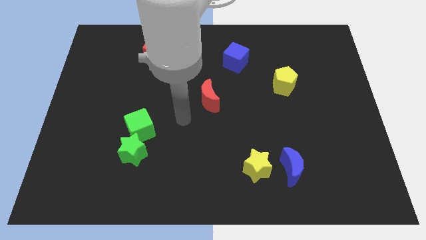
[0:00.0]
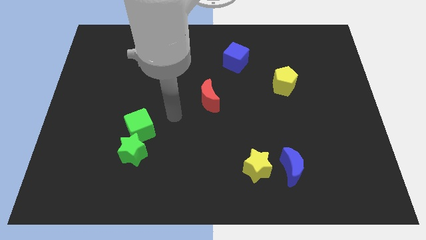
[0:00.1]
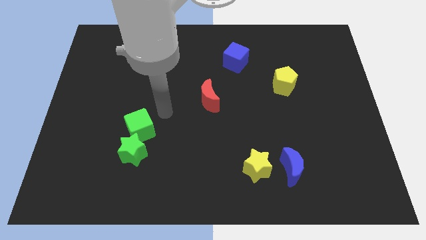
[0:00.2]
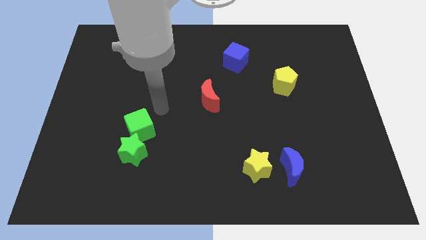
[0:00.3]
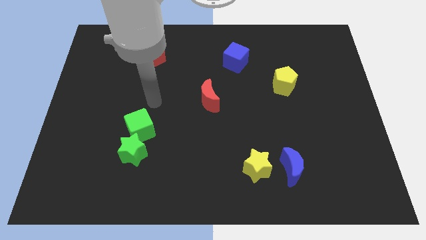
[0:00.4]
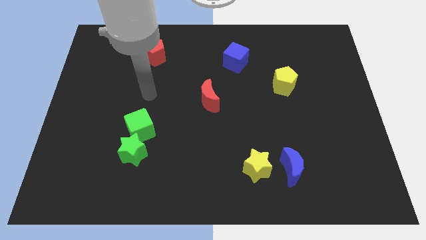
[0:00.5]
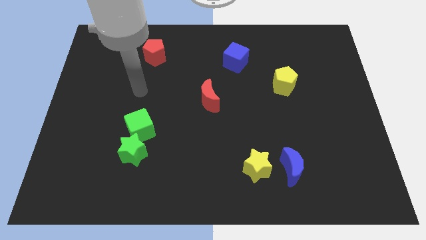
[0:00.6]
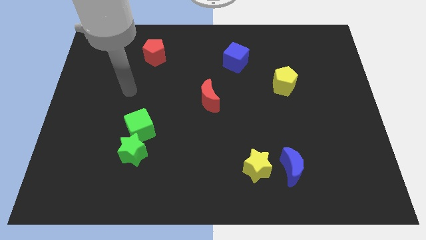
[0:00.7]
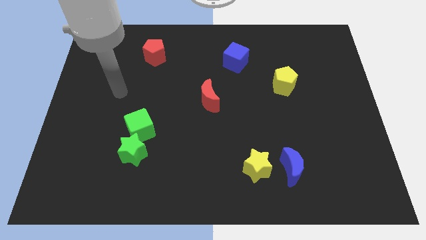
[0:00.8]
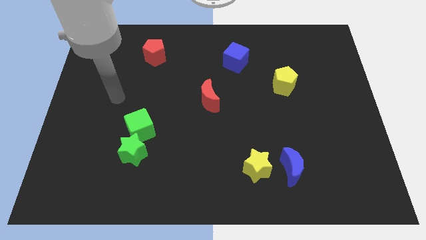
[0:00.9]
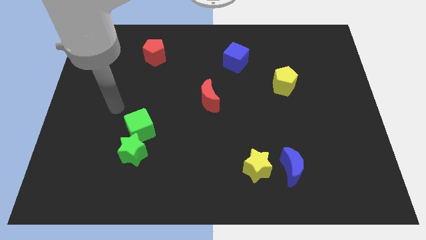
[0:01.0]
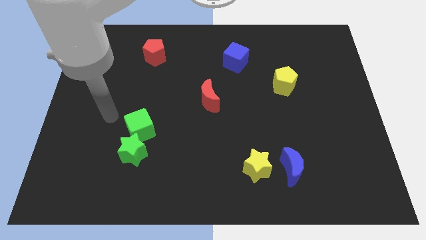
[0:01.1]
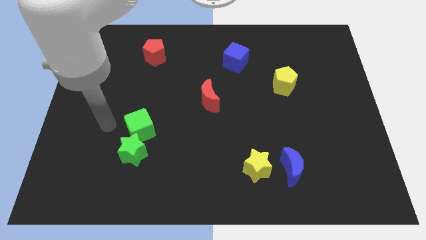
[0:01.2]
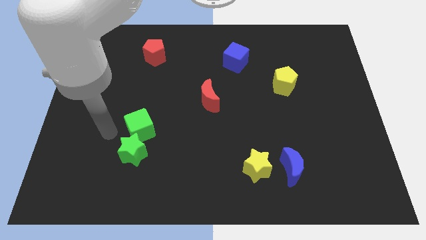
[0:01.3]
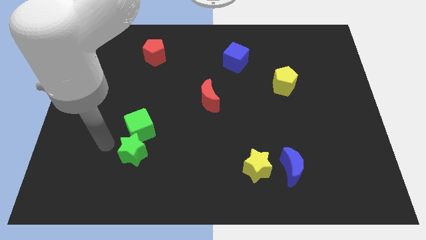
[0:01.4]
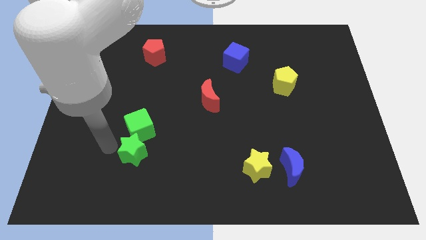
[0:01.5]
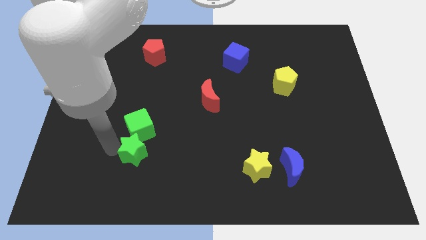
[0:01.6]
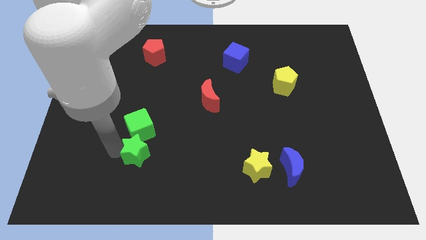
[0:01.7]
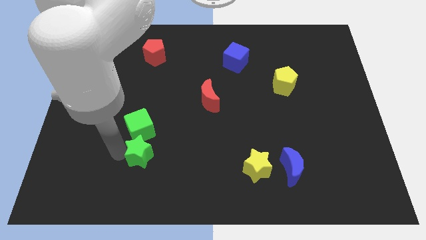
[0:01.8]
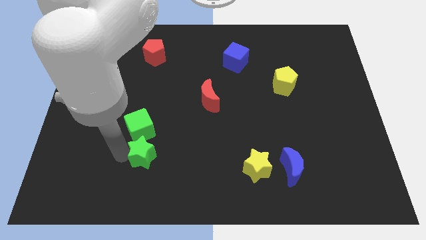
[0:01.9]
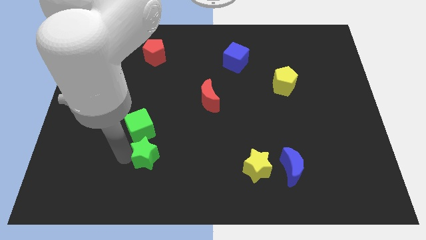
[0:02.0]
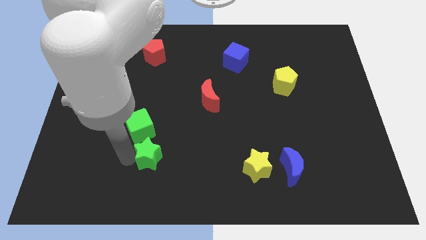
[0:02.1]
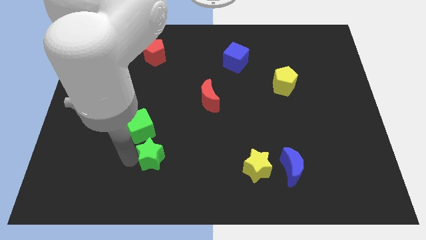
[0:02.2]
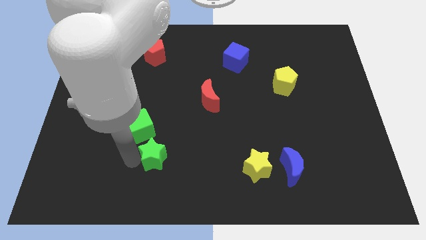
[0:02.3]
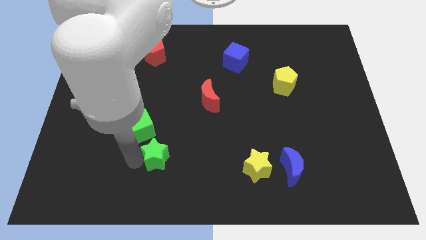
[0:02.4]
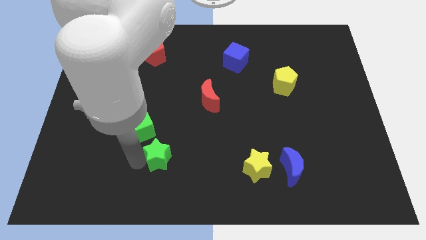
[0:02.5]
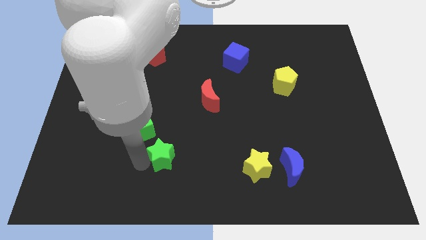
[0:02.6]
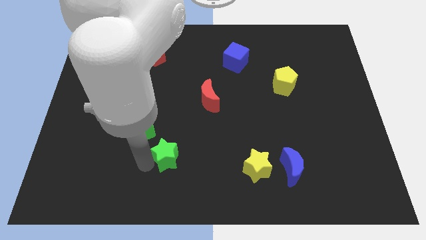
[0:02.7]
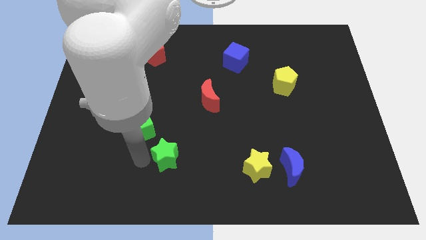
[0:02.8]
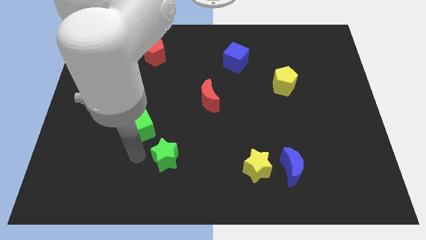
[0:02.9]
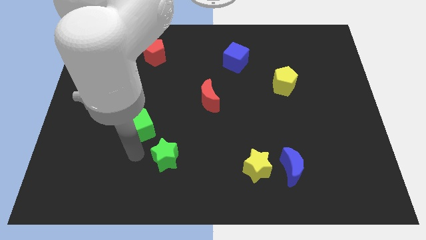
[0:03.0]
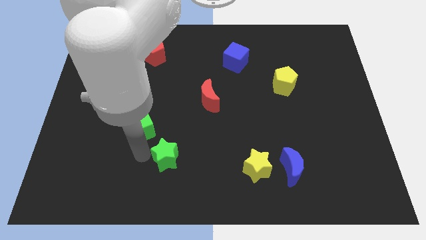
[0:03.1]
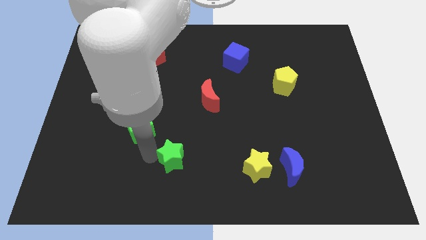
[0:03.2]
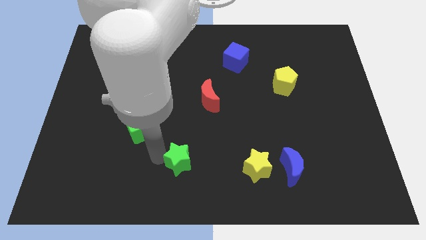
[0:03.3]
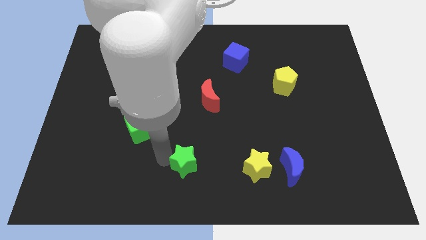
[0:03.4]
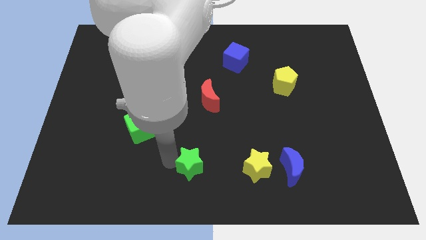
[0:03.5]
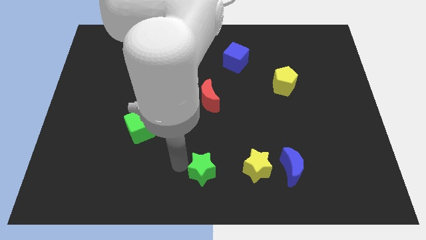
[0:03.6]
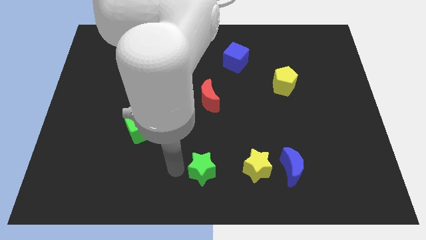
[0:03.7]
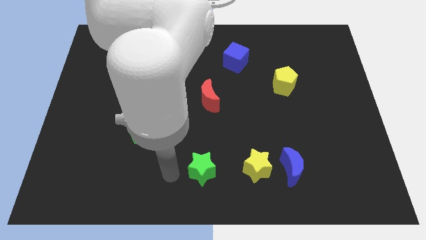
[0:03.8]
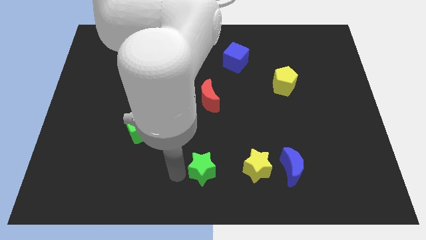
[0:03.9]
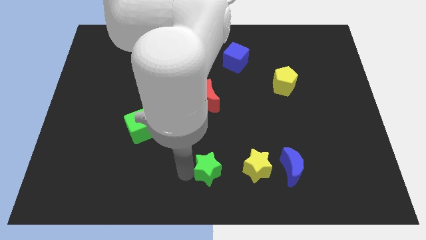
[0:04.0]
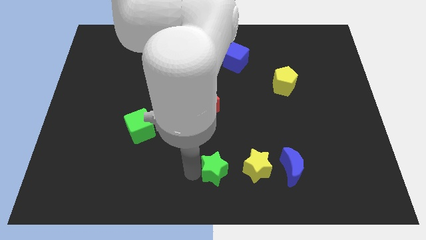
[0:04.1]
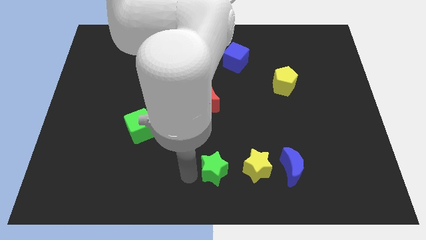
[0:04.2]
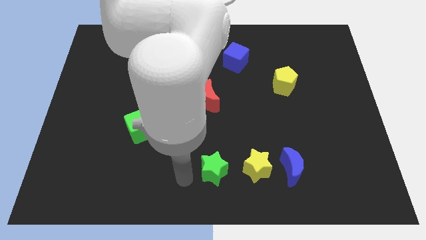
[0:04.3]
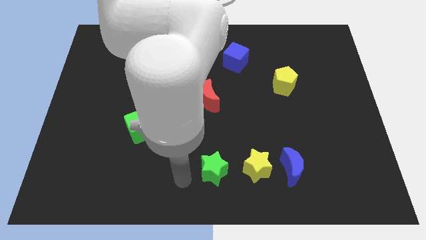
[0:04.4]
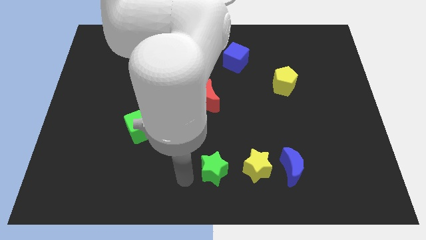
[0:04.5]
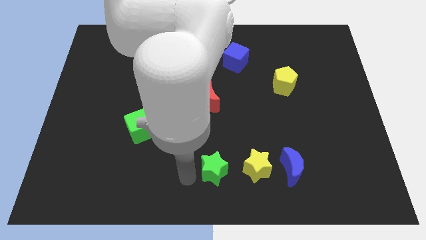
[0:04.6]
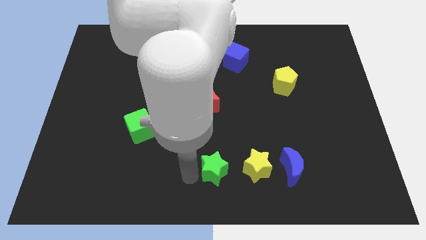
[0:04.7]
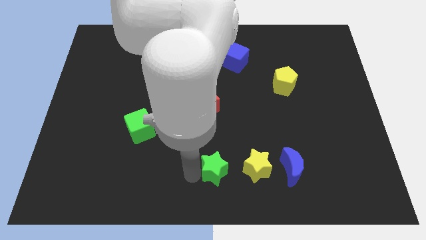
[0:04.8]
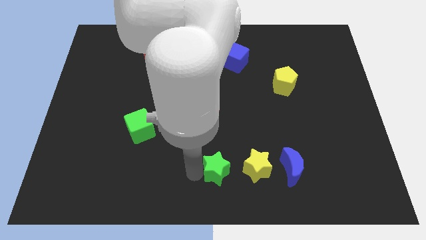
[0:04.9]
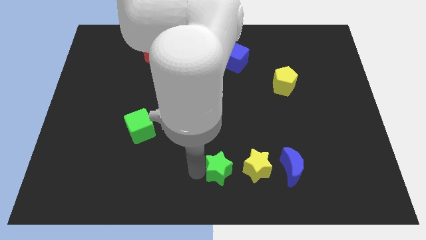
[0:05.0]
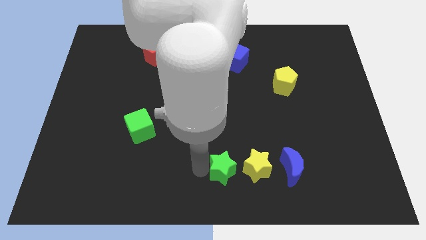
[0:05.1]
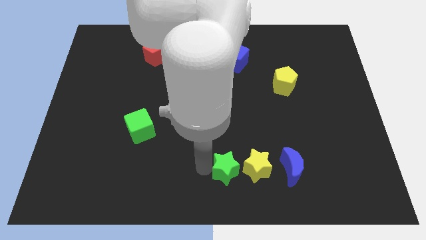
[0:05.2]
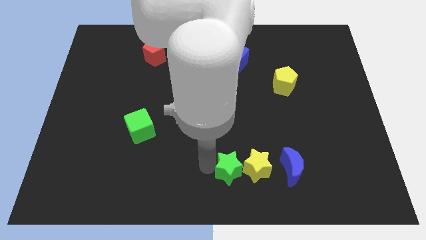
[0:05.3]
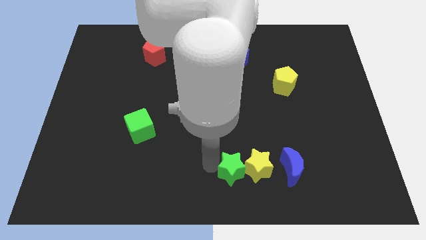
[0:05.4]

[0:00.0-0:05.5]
move the green star close to the yellow star

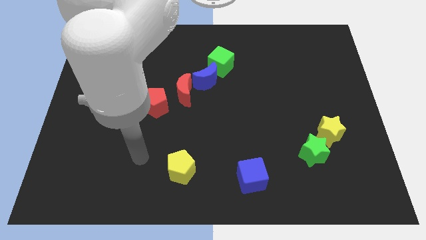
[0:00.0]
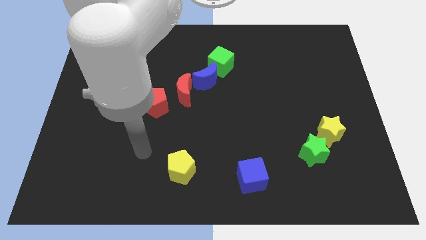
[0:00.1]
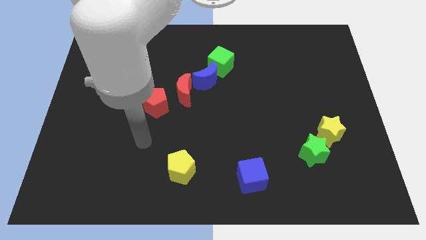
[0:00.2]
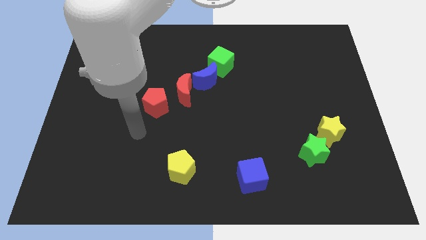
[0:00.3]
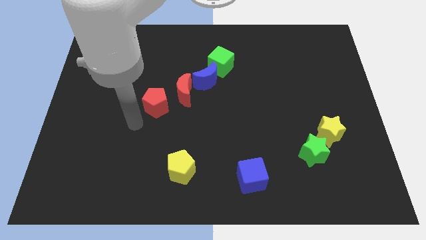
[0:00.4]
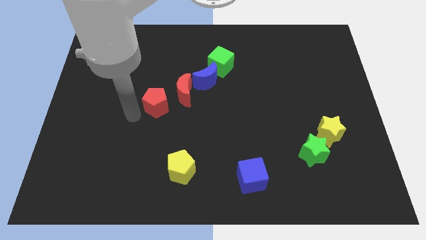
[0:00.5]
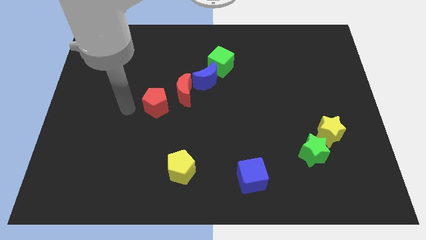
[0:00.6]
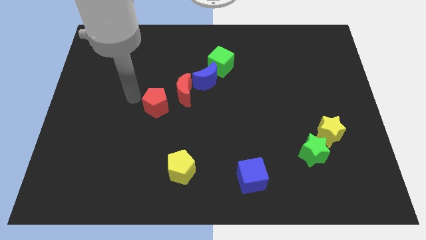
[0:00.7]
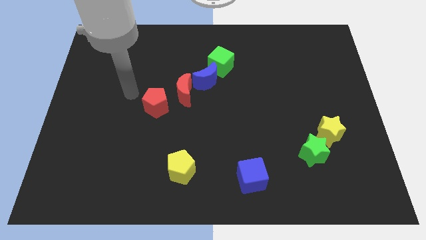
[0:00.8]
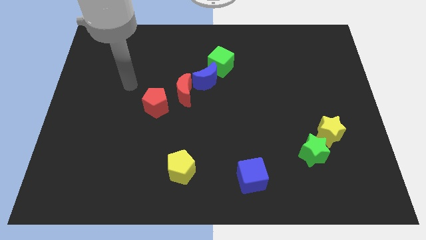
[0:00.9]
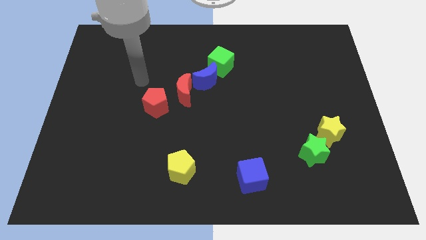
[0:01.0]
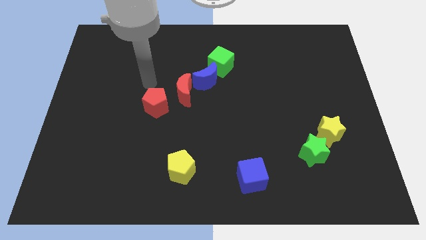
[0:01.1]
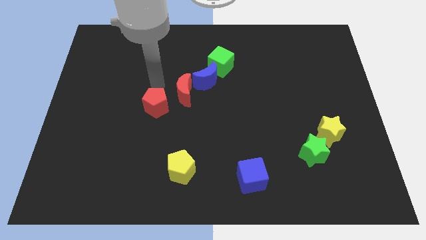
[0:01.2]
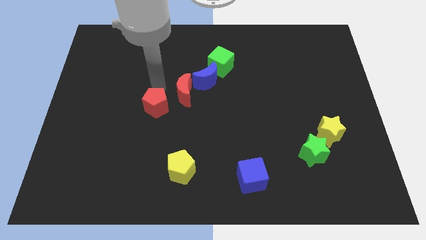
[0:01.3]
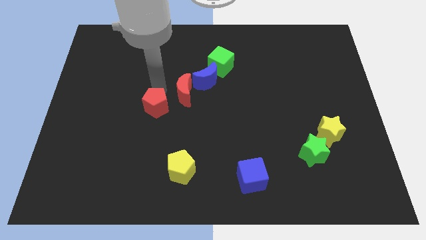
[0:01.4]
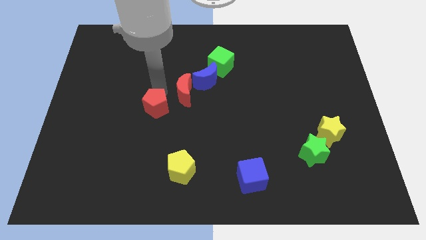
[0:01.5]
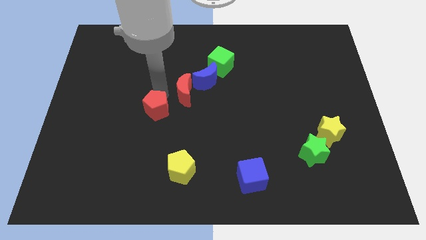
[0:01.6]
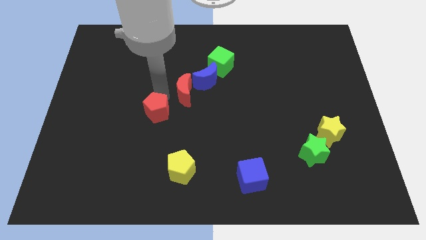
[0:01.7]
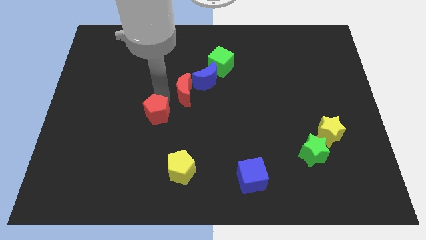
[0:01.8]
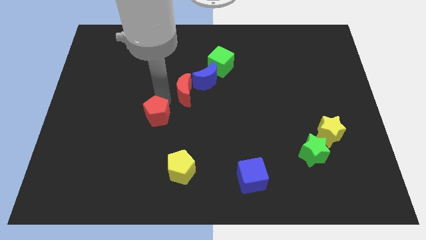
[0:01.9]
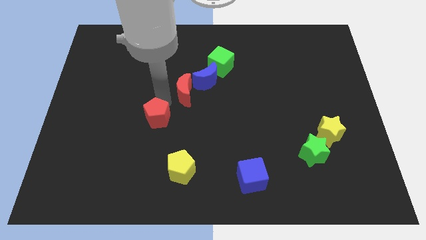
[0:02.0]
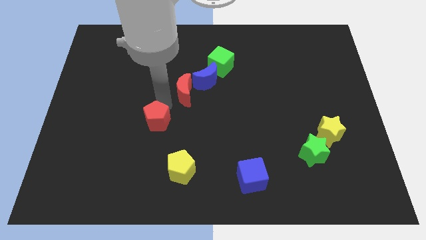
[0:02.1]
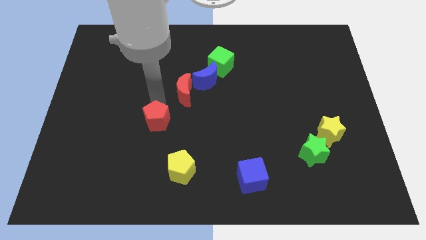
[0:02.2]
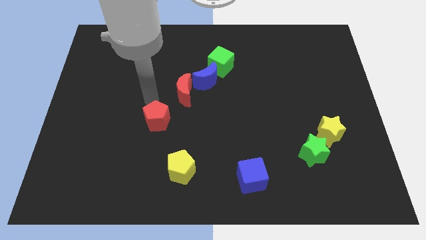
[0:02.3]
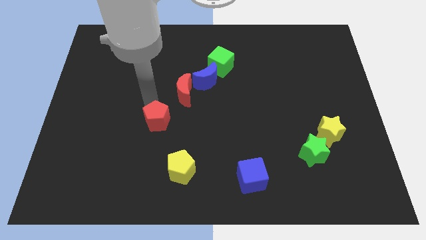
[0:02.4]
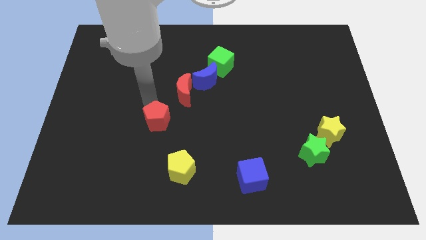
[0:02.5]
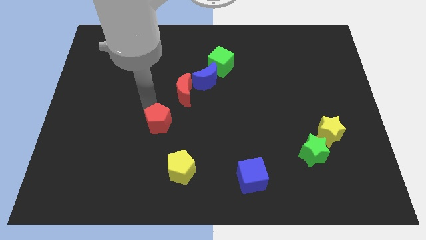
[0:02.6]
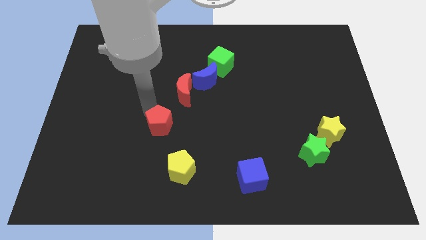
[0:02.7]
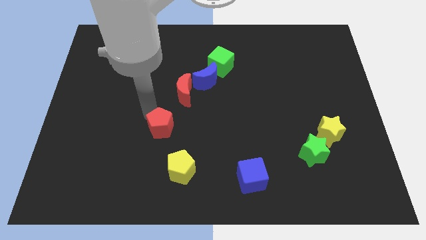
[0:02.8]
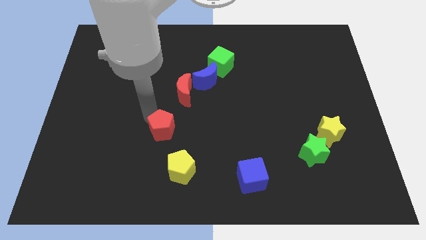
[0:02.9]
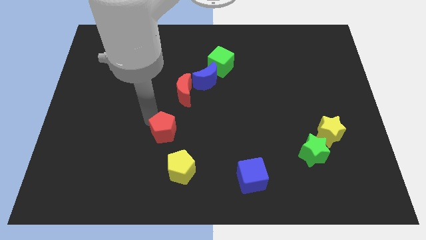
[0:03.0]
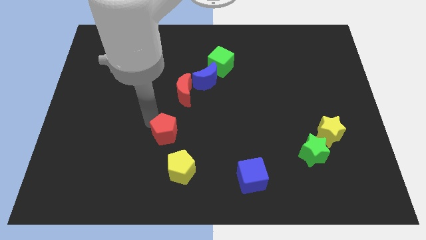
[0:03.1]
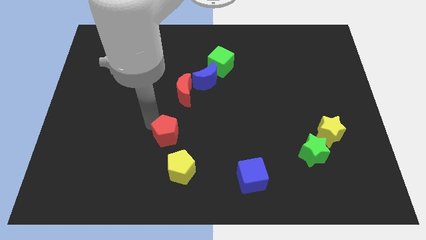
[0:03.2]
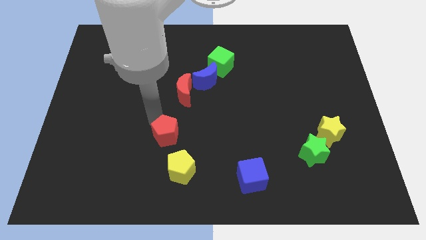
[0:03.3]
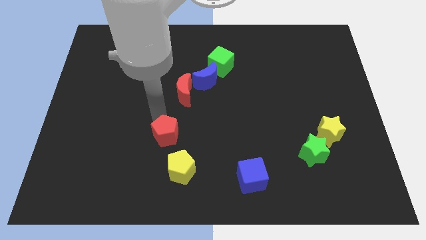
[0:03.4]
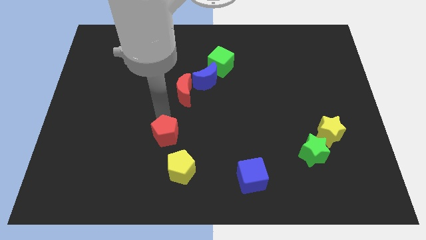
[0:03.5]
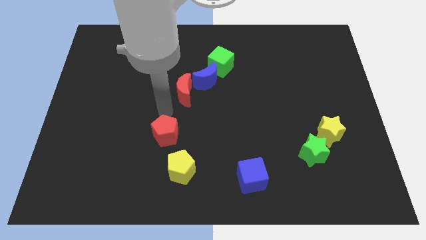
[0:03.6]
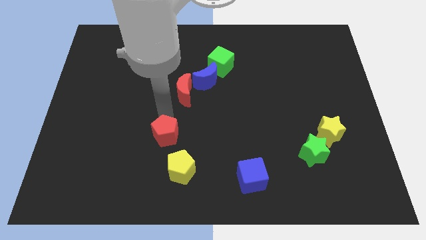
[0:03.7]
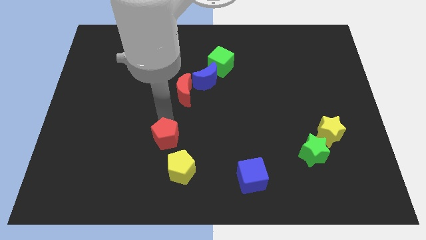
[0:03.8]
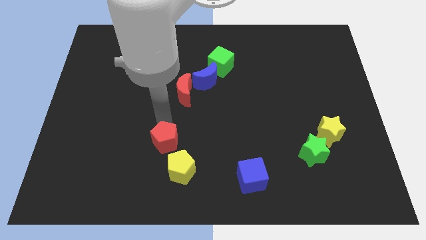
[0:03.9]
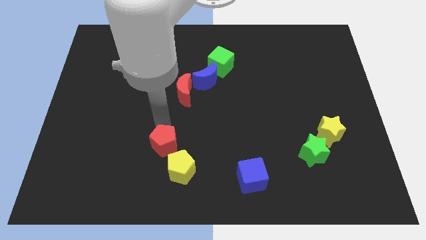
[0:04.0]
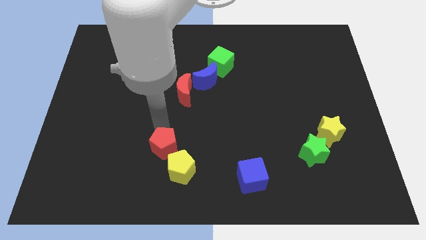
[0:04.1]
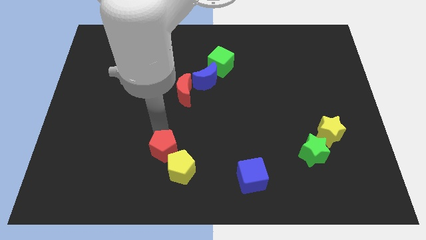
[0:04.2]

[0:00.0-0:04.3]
move the red pentagon to the yellow pentagon
